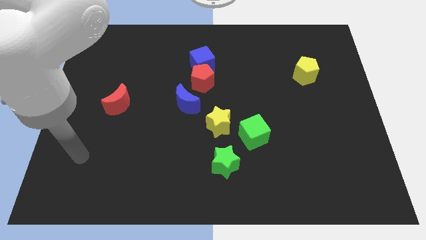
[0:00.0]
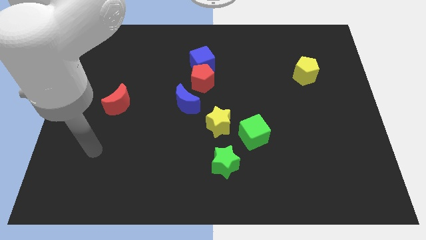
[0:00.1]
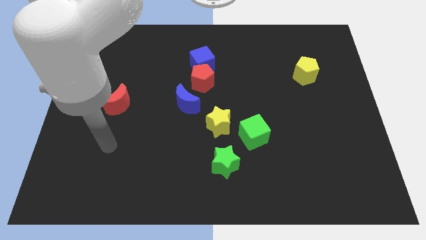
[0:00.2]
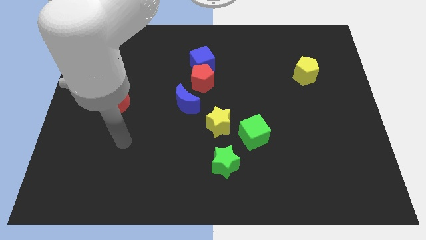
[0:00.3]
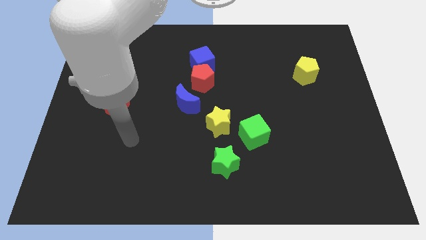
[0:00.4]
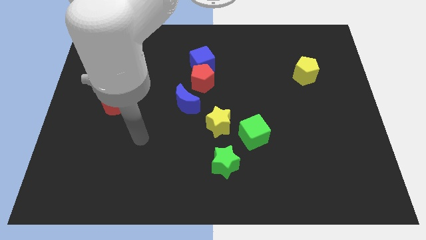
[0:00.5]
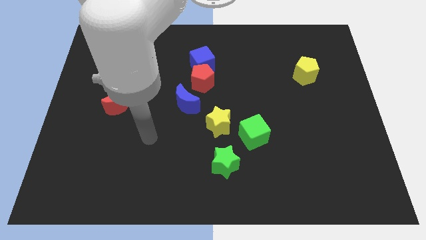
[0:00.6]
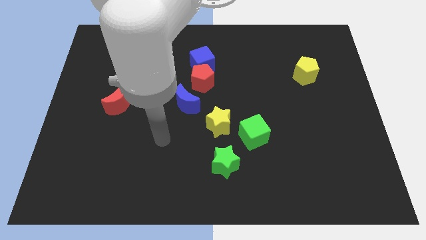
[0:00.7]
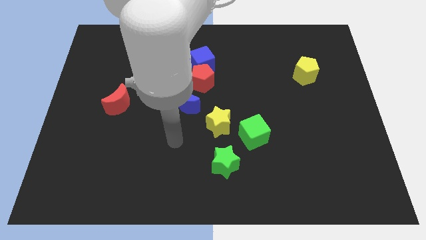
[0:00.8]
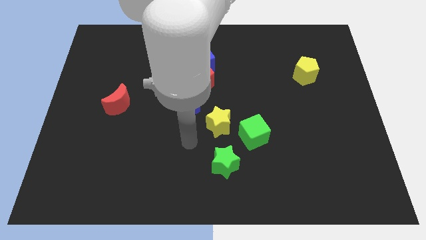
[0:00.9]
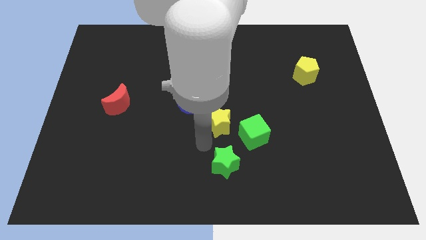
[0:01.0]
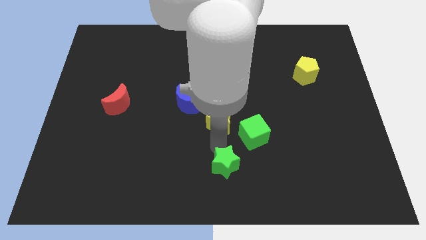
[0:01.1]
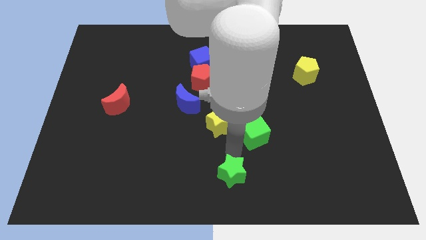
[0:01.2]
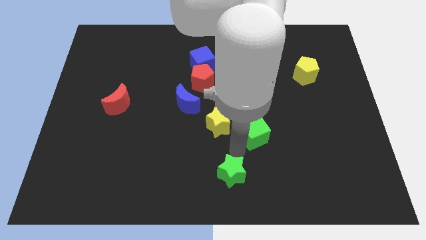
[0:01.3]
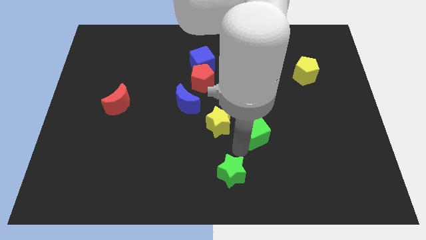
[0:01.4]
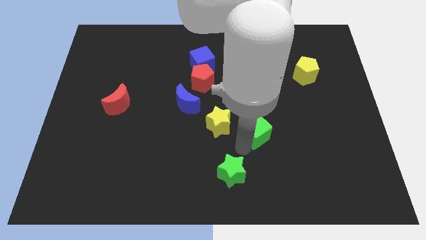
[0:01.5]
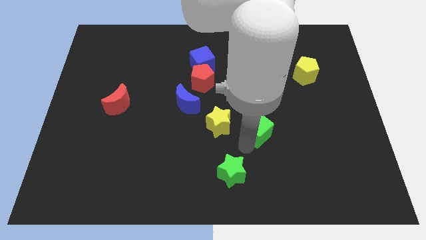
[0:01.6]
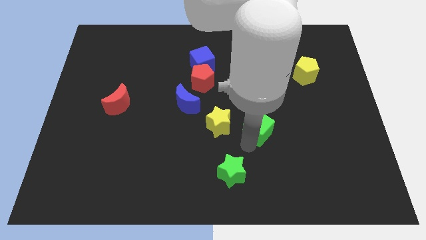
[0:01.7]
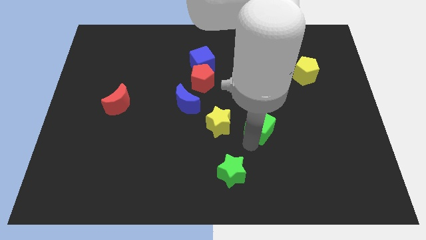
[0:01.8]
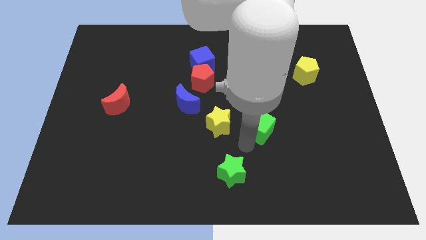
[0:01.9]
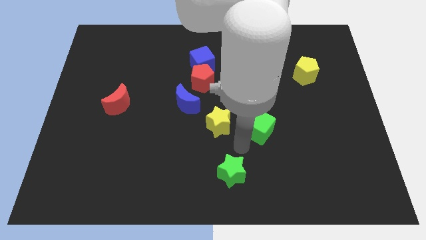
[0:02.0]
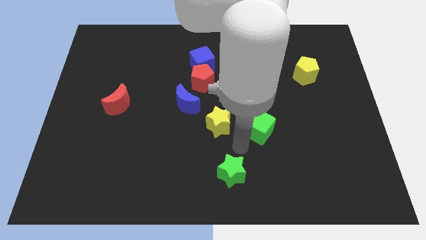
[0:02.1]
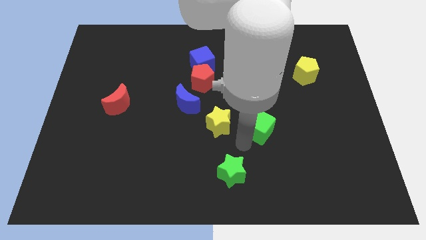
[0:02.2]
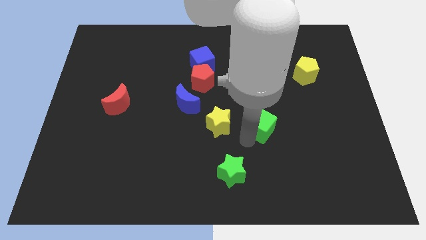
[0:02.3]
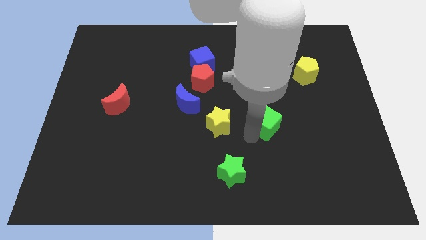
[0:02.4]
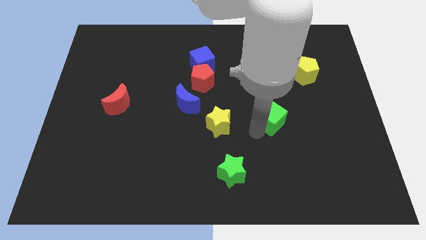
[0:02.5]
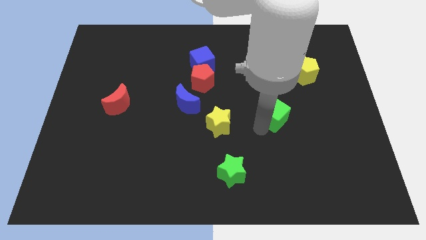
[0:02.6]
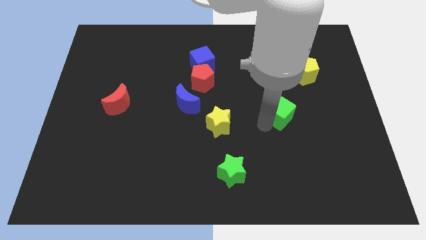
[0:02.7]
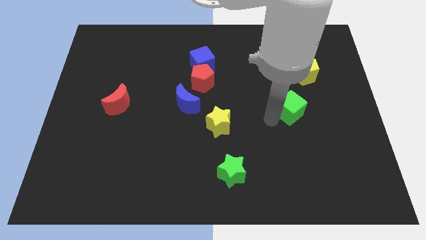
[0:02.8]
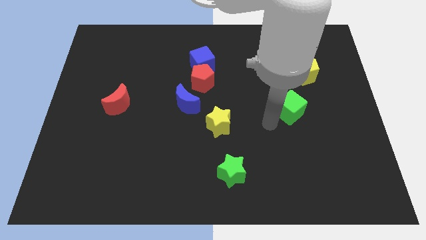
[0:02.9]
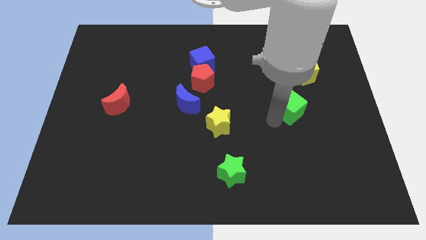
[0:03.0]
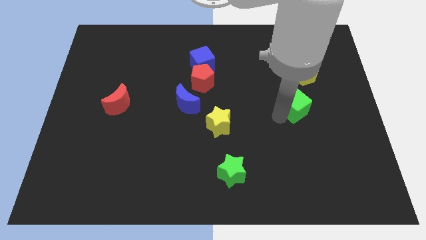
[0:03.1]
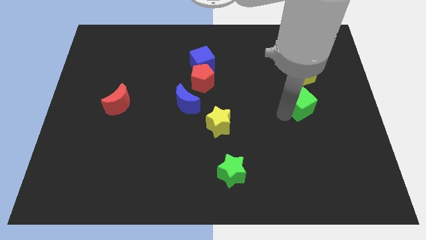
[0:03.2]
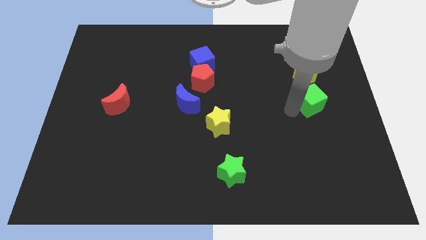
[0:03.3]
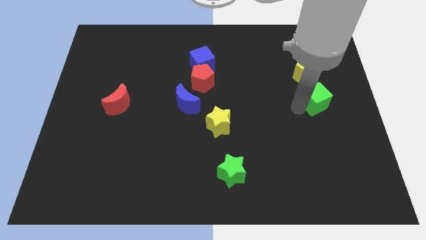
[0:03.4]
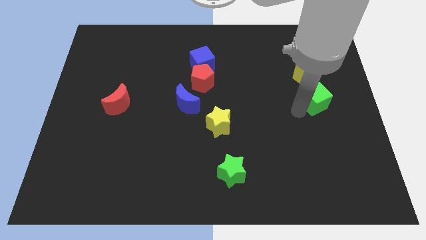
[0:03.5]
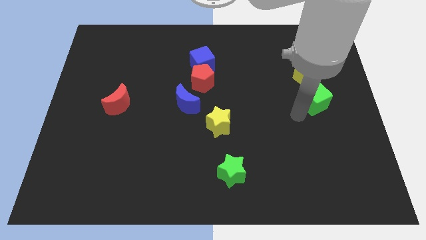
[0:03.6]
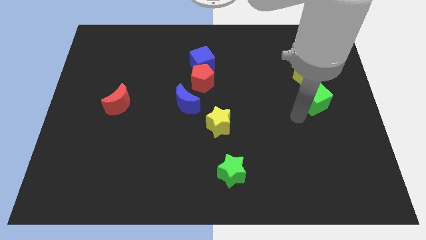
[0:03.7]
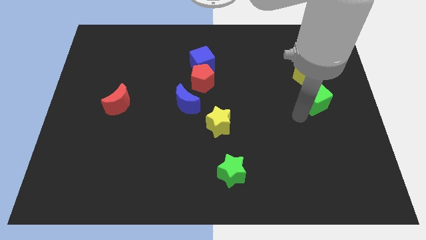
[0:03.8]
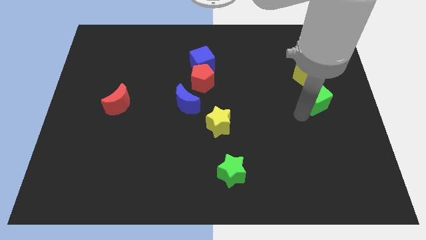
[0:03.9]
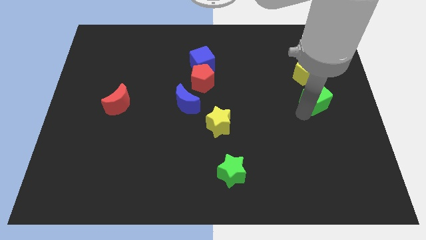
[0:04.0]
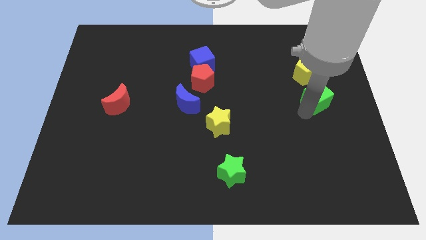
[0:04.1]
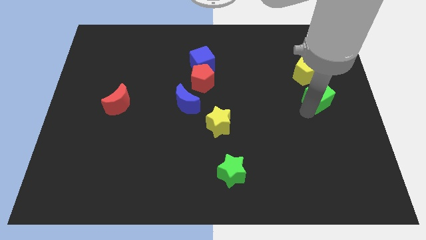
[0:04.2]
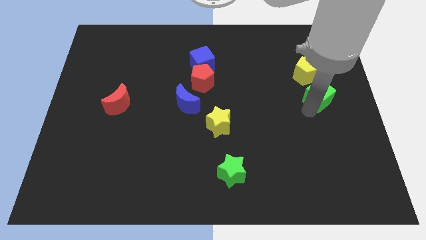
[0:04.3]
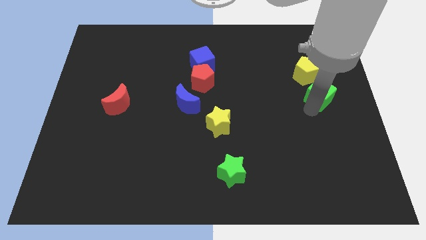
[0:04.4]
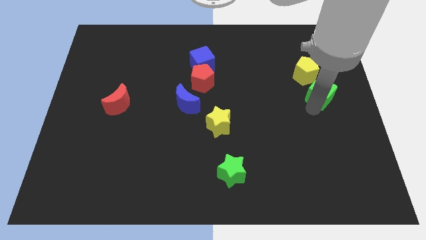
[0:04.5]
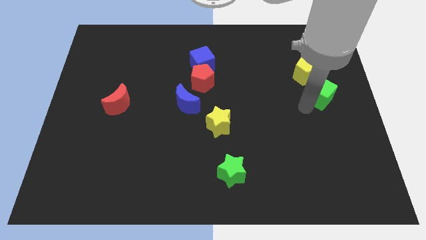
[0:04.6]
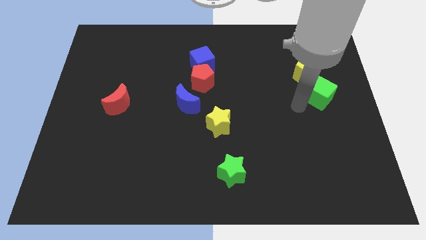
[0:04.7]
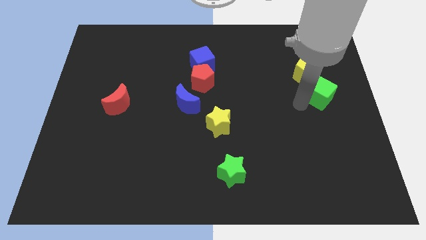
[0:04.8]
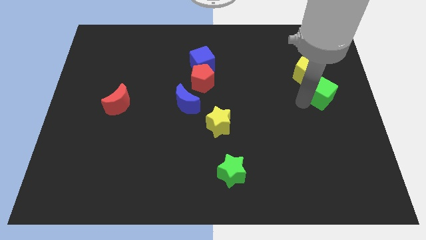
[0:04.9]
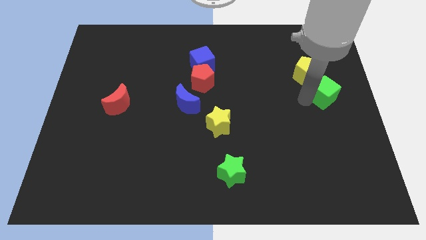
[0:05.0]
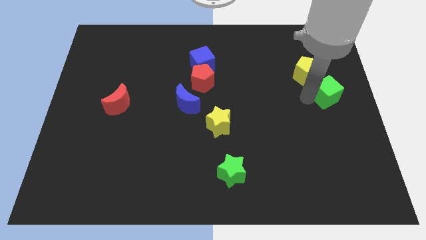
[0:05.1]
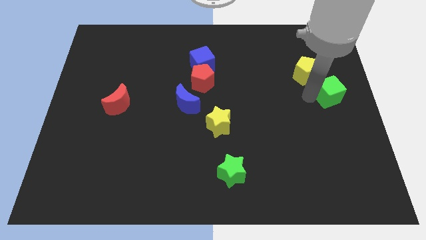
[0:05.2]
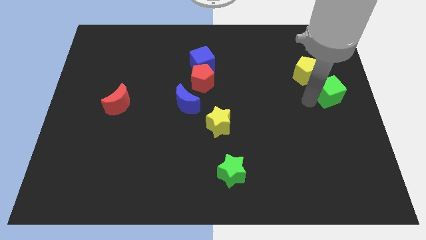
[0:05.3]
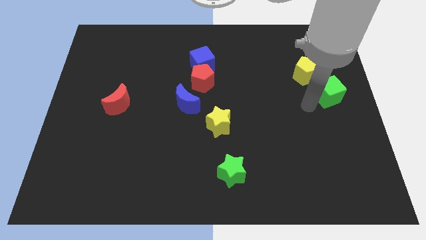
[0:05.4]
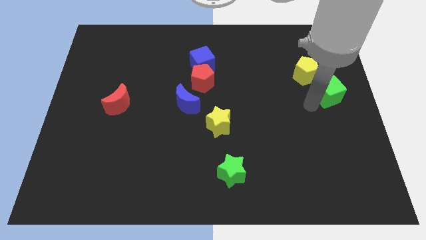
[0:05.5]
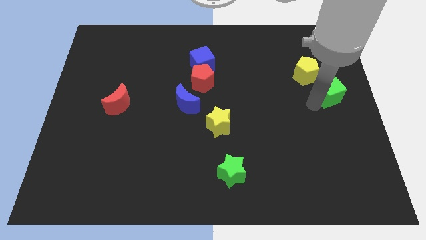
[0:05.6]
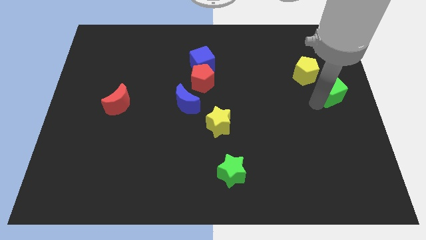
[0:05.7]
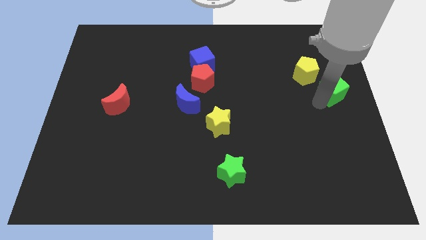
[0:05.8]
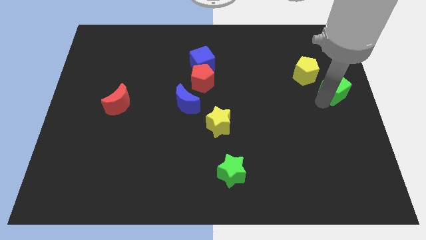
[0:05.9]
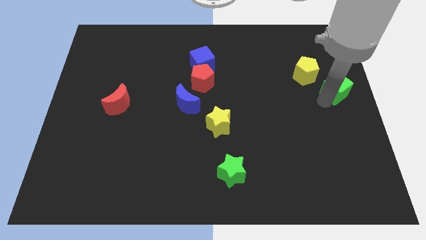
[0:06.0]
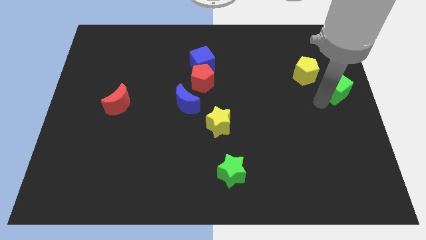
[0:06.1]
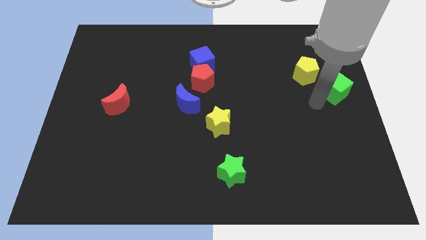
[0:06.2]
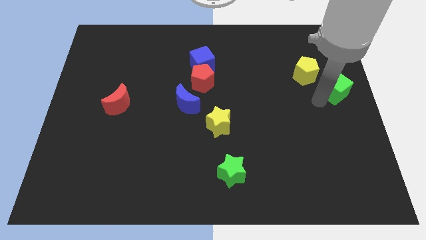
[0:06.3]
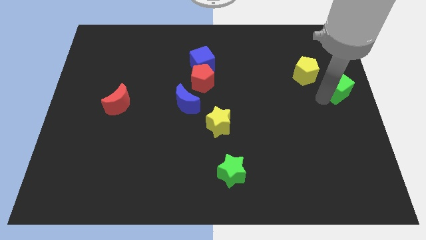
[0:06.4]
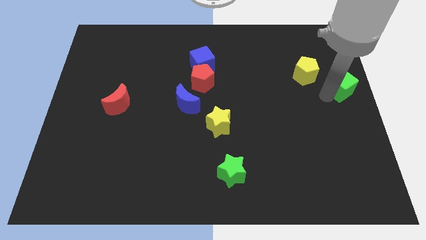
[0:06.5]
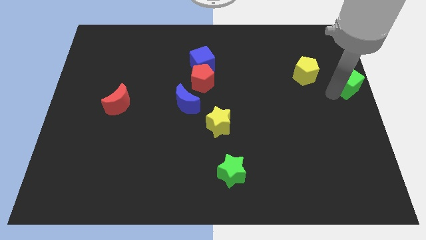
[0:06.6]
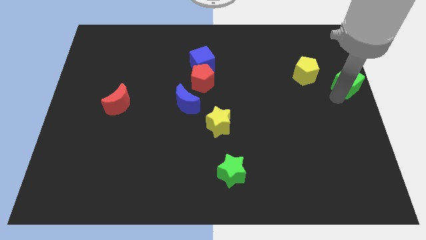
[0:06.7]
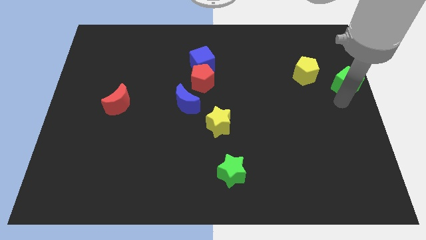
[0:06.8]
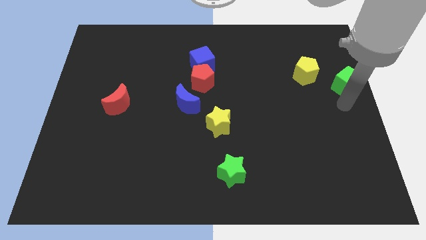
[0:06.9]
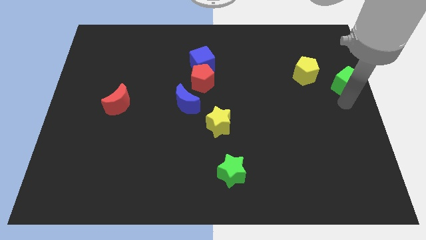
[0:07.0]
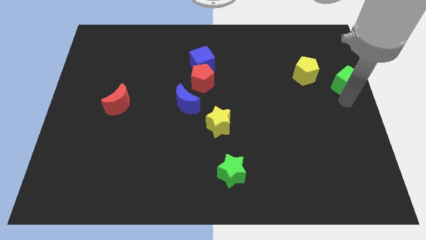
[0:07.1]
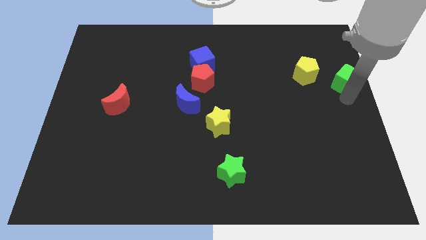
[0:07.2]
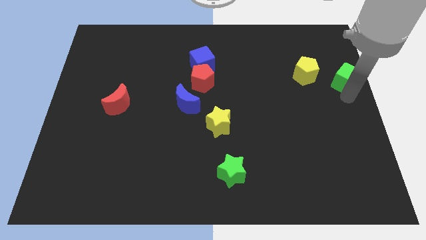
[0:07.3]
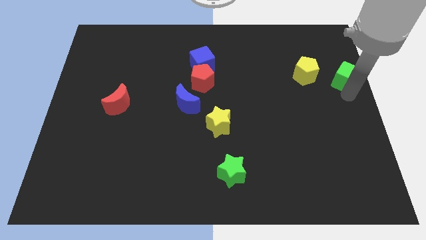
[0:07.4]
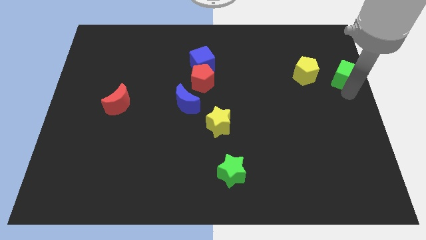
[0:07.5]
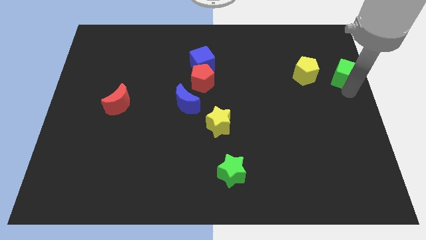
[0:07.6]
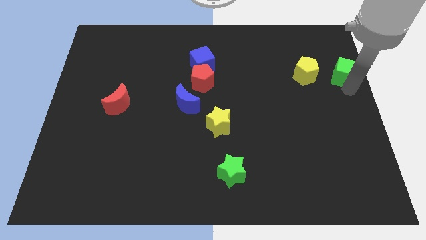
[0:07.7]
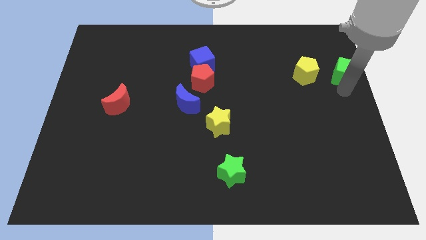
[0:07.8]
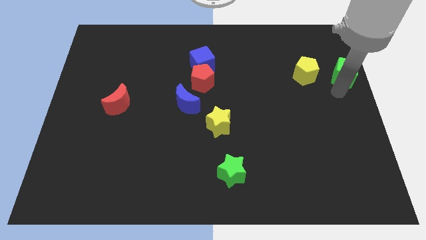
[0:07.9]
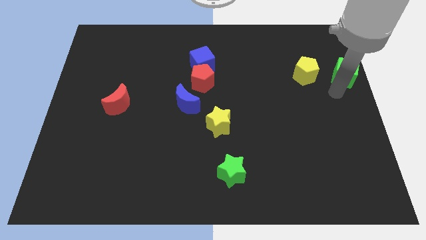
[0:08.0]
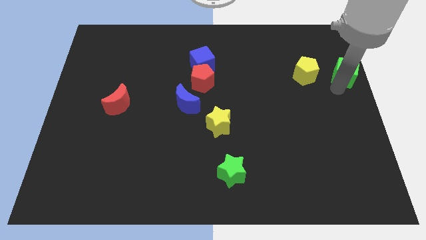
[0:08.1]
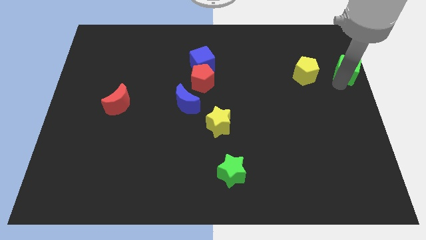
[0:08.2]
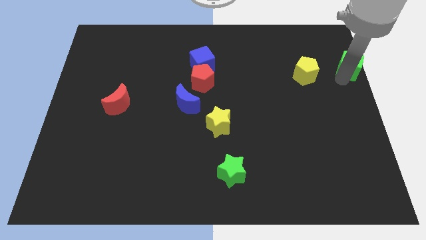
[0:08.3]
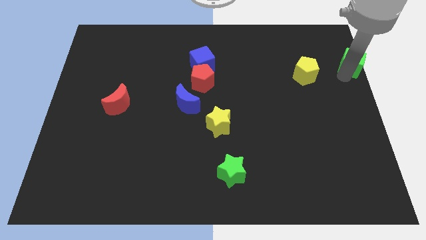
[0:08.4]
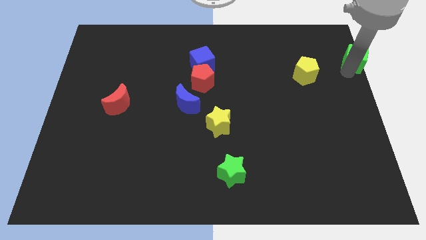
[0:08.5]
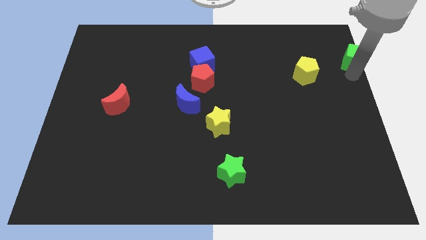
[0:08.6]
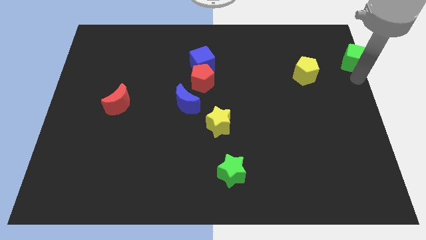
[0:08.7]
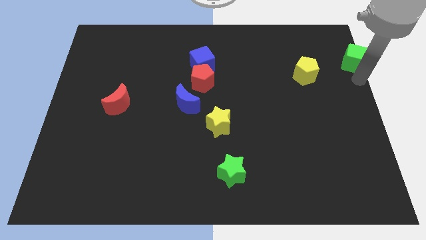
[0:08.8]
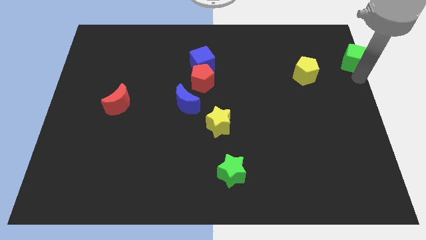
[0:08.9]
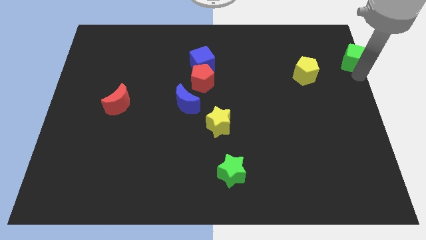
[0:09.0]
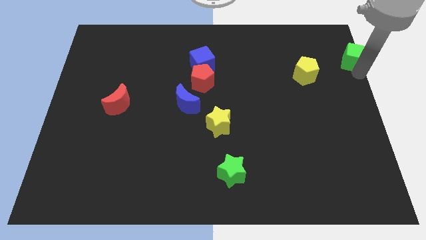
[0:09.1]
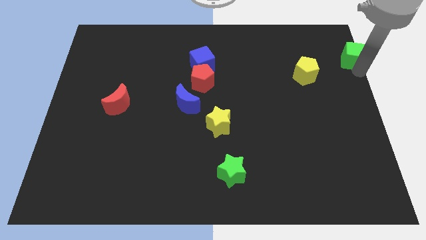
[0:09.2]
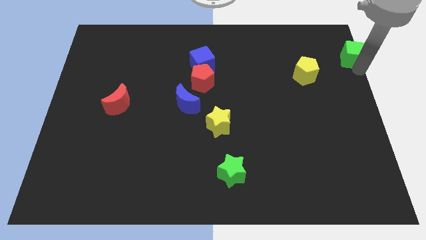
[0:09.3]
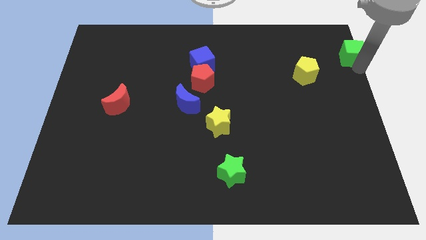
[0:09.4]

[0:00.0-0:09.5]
move the green cube to the top right
